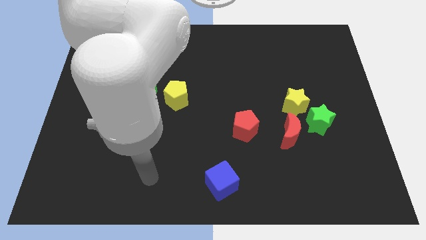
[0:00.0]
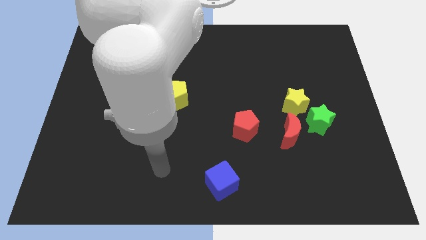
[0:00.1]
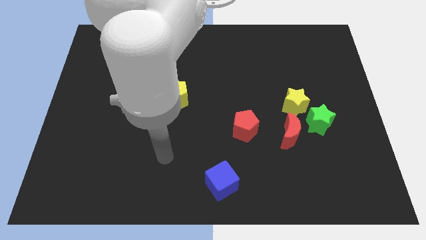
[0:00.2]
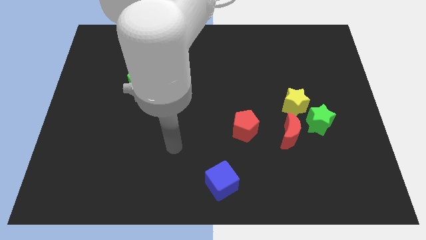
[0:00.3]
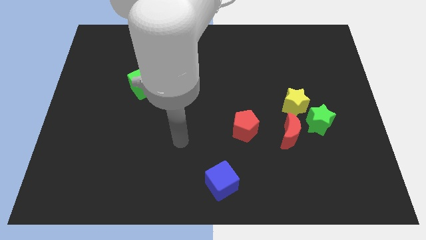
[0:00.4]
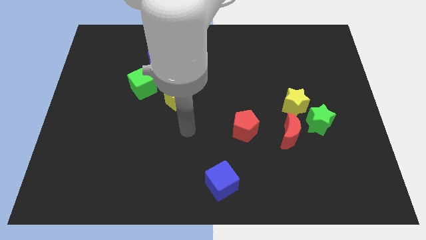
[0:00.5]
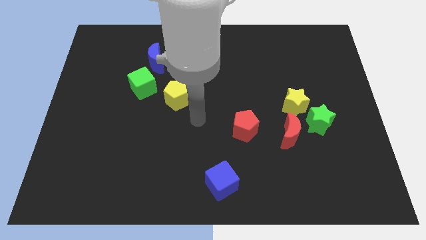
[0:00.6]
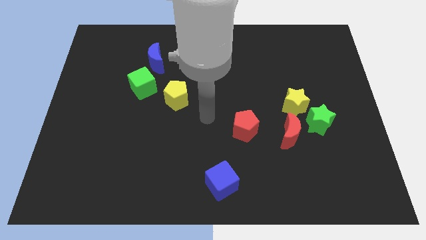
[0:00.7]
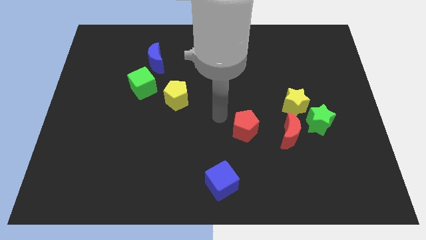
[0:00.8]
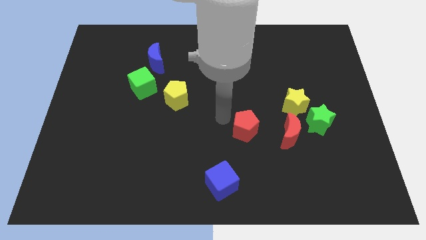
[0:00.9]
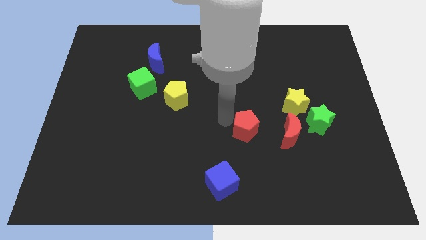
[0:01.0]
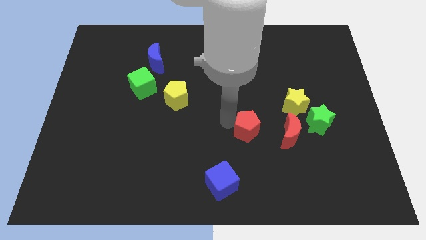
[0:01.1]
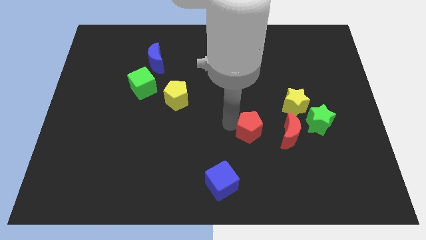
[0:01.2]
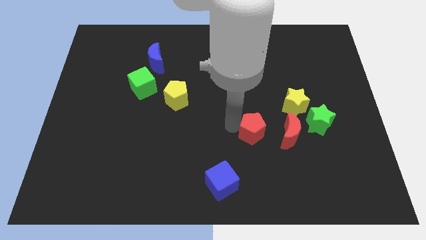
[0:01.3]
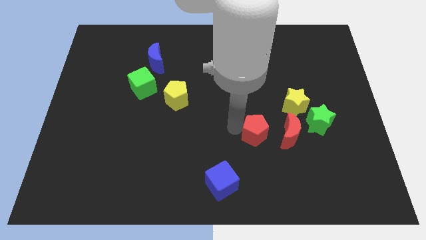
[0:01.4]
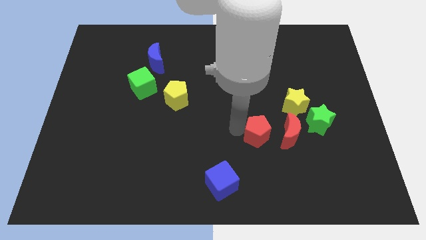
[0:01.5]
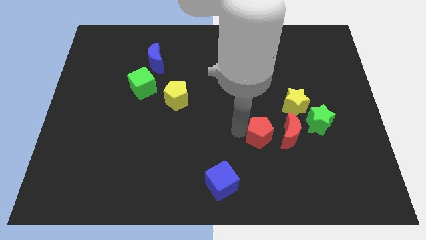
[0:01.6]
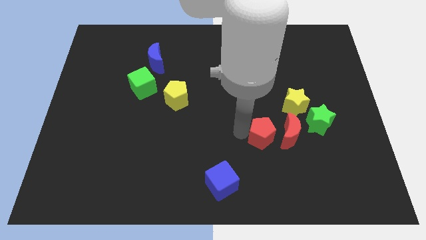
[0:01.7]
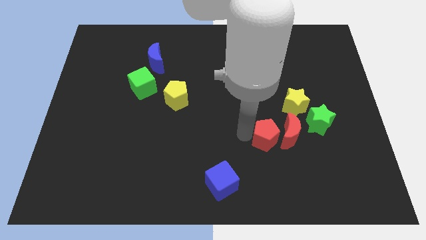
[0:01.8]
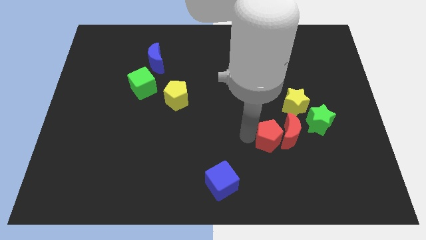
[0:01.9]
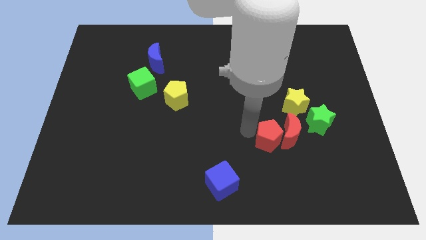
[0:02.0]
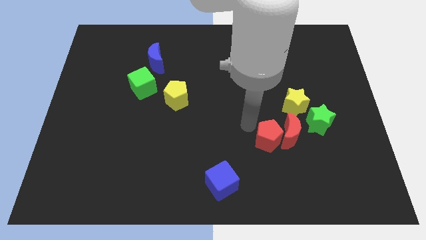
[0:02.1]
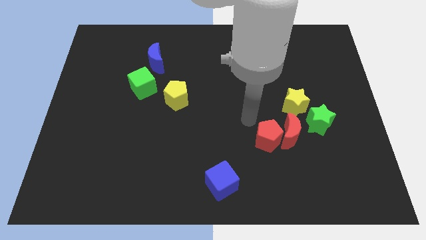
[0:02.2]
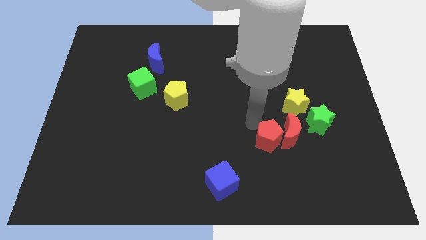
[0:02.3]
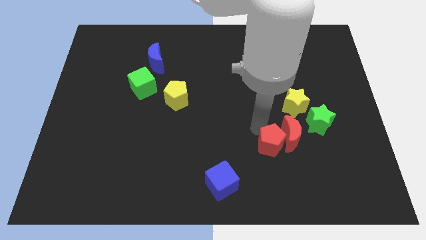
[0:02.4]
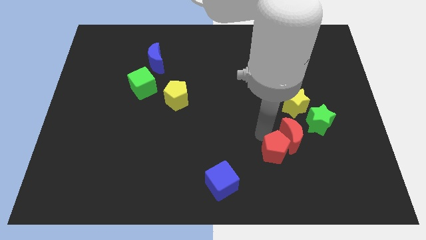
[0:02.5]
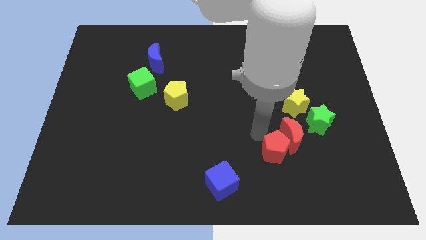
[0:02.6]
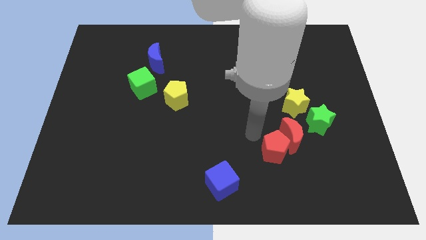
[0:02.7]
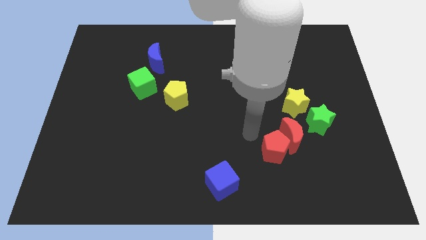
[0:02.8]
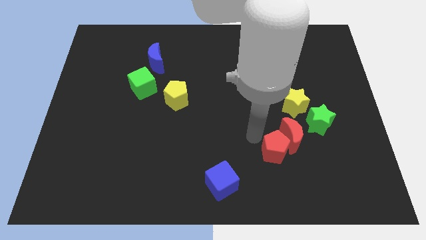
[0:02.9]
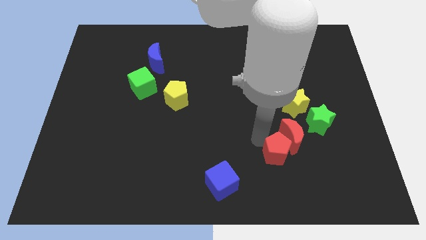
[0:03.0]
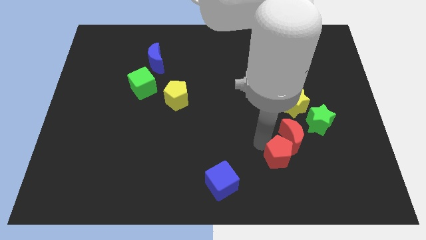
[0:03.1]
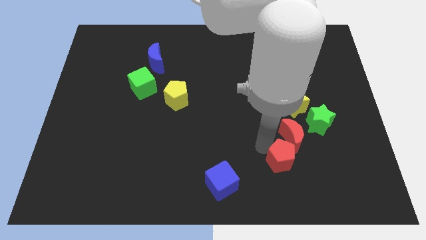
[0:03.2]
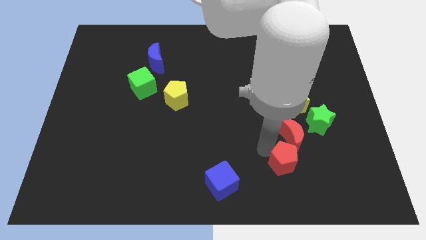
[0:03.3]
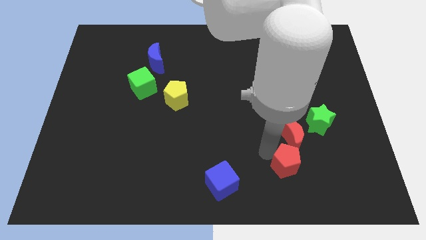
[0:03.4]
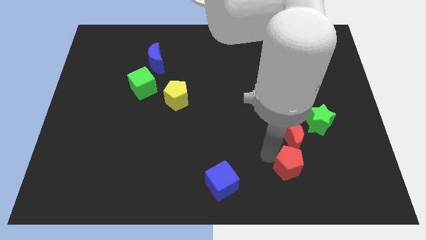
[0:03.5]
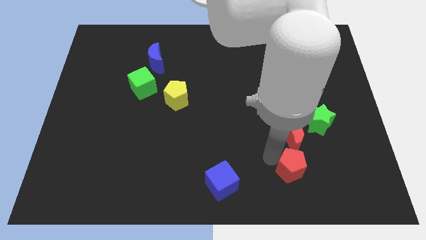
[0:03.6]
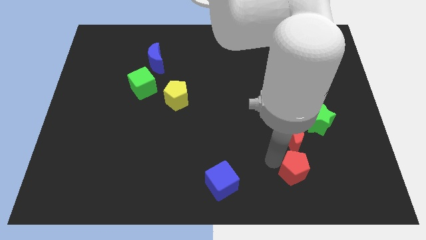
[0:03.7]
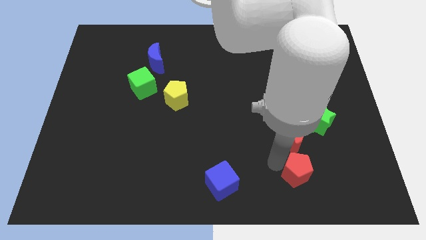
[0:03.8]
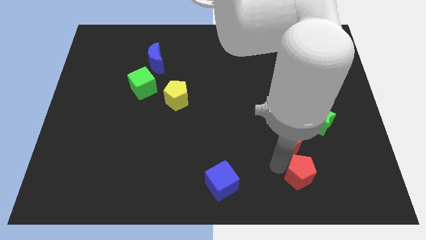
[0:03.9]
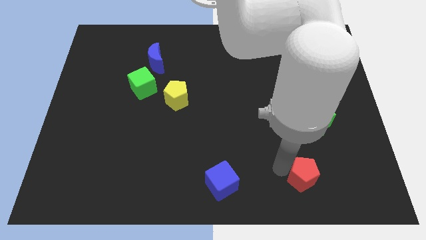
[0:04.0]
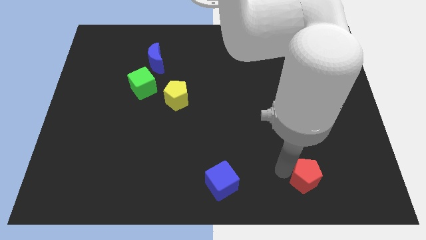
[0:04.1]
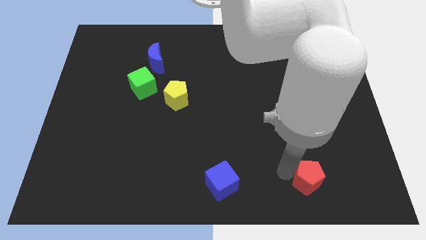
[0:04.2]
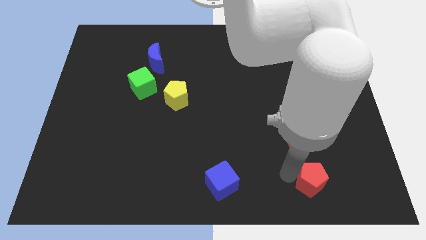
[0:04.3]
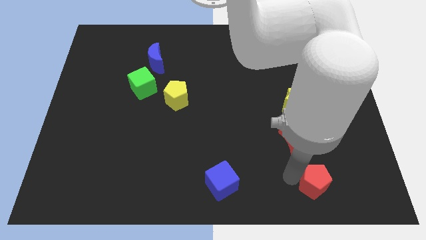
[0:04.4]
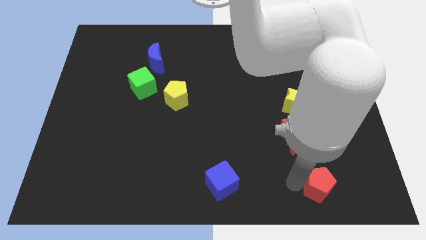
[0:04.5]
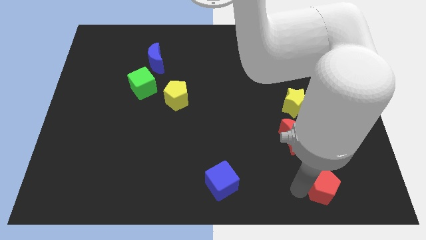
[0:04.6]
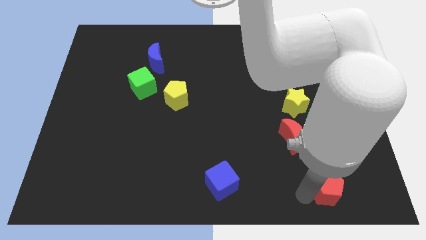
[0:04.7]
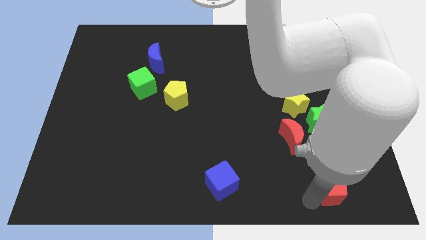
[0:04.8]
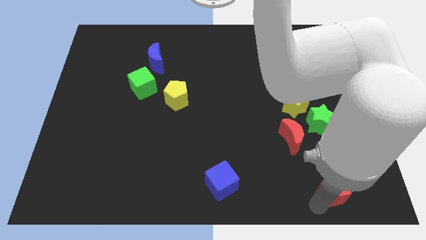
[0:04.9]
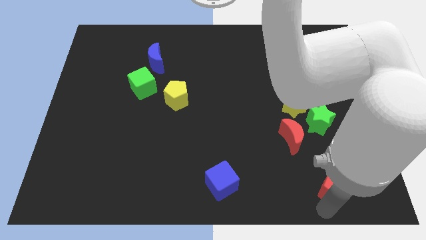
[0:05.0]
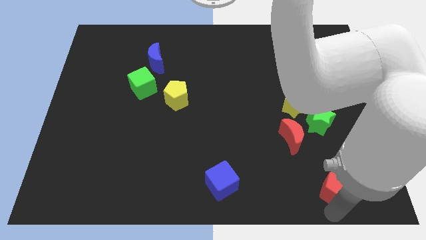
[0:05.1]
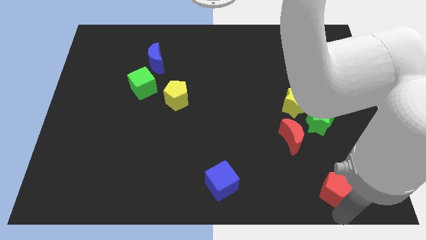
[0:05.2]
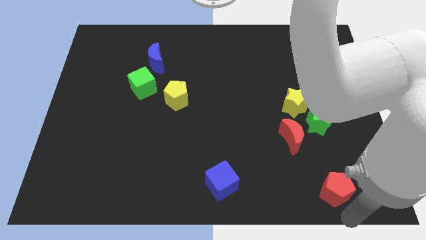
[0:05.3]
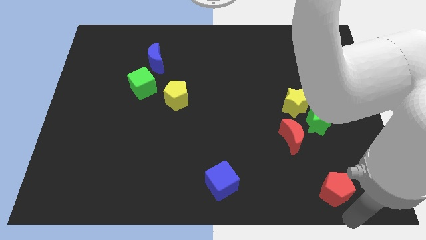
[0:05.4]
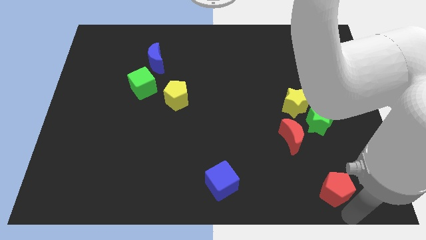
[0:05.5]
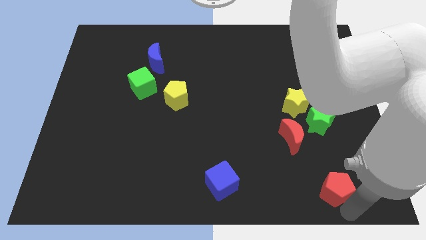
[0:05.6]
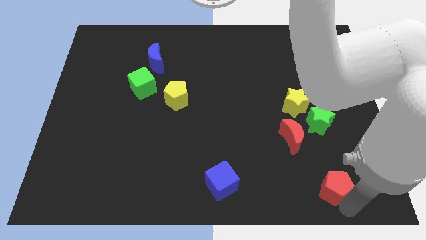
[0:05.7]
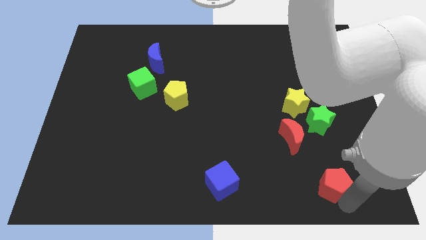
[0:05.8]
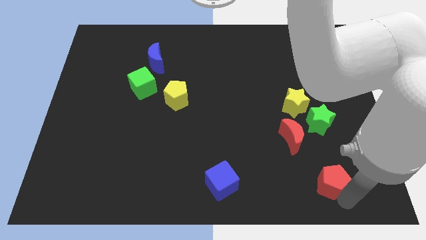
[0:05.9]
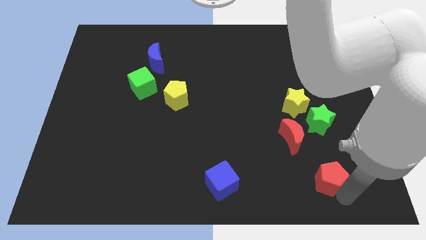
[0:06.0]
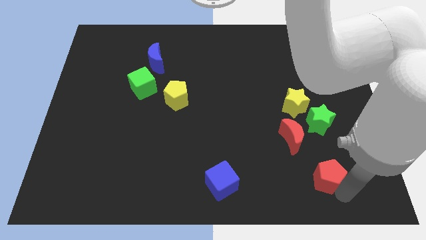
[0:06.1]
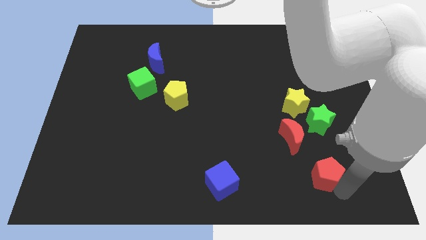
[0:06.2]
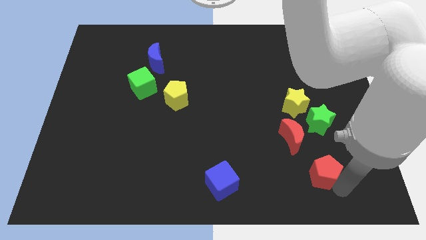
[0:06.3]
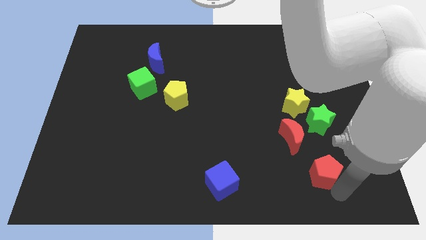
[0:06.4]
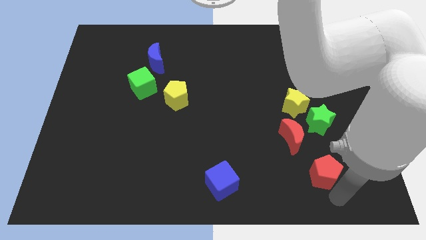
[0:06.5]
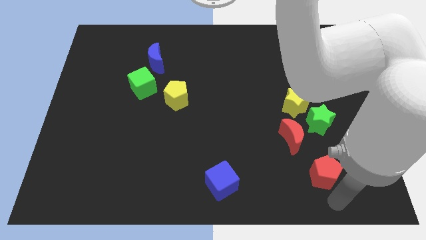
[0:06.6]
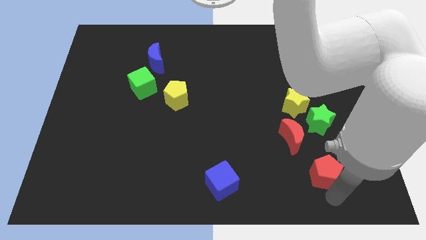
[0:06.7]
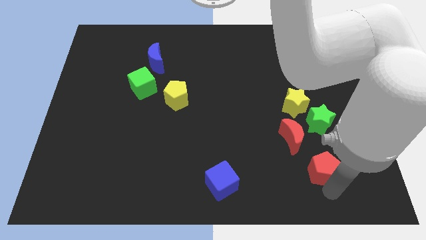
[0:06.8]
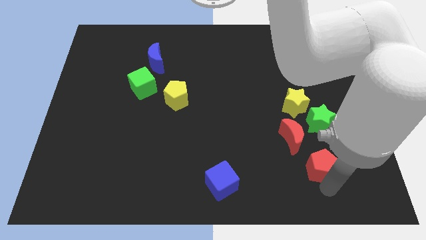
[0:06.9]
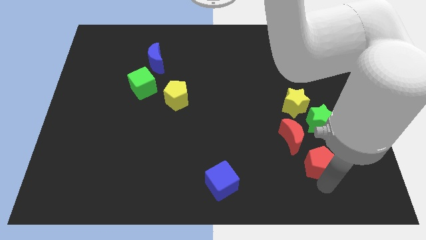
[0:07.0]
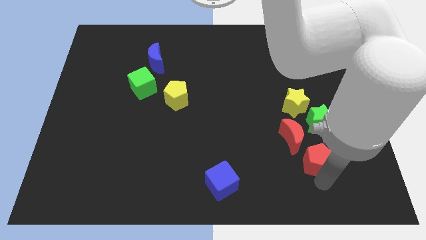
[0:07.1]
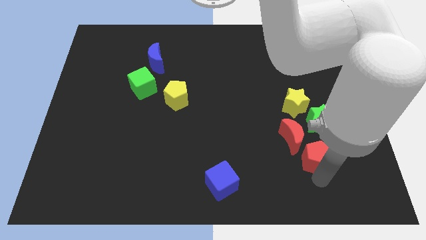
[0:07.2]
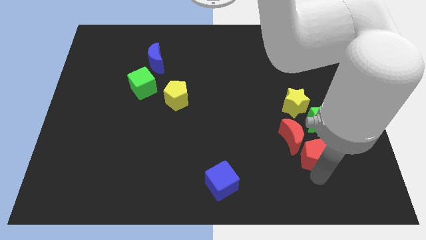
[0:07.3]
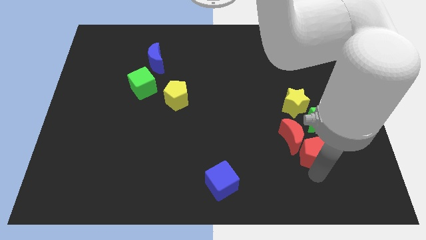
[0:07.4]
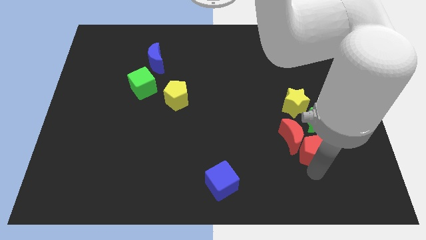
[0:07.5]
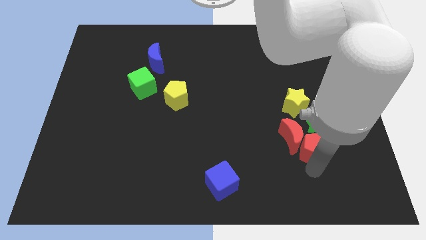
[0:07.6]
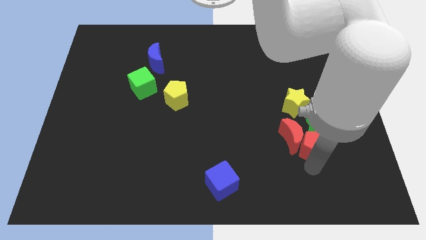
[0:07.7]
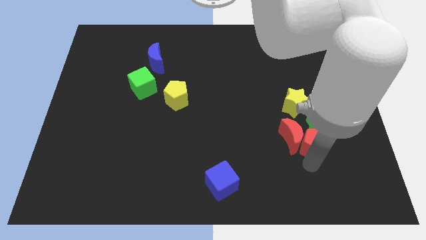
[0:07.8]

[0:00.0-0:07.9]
put the red pentagon close to the green star
